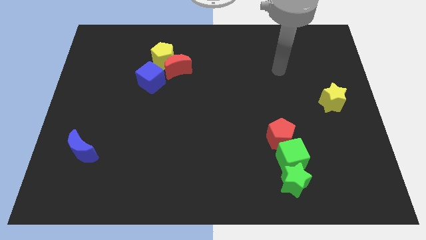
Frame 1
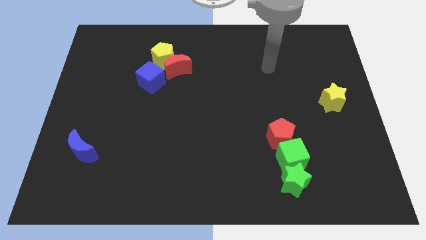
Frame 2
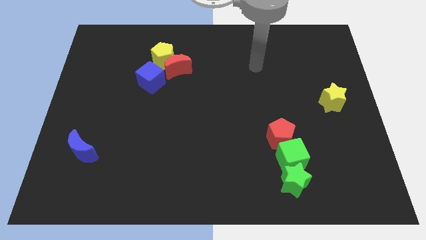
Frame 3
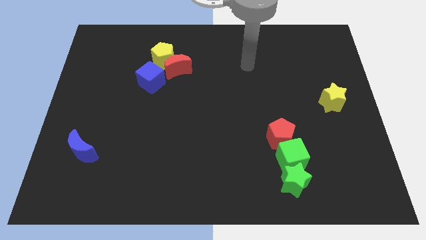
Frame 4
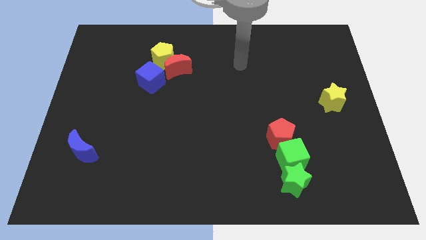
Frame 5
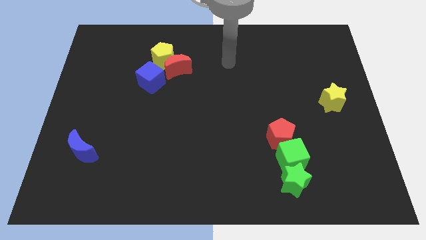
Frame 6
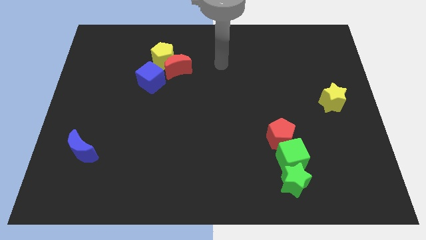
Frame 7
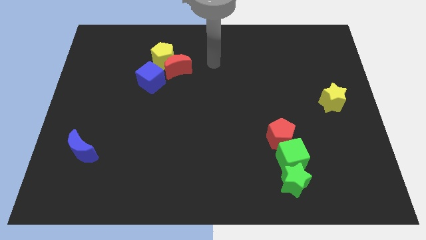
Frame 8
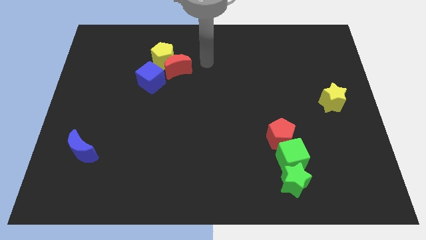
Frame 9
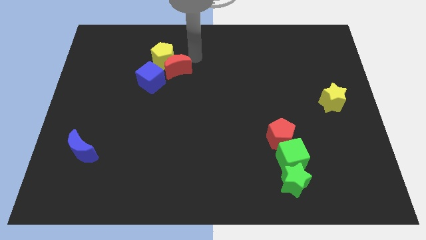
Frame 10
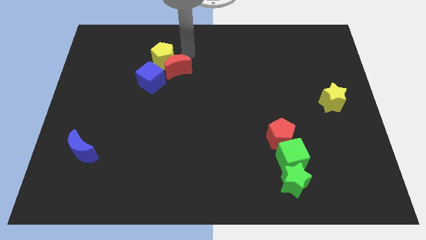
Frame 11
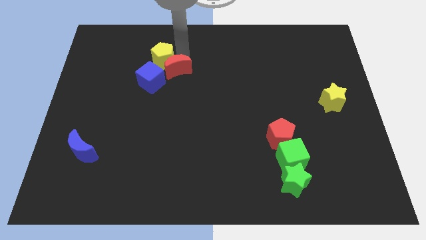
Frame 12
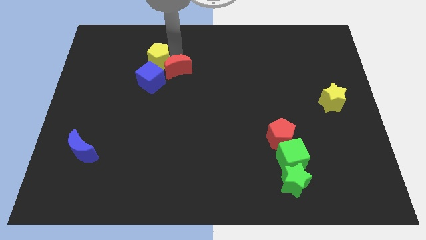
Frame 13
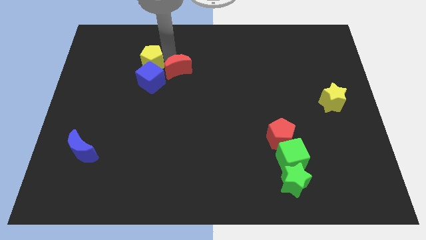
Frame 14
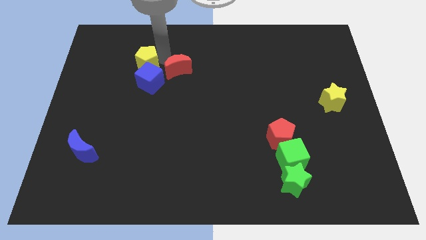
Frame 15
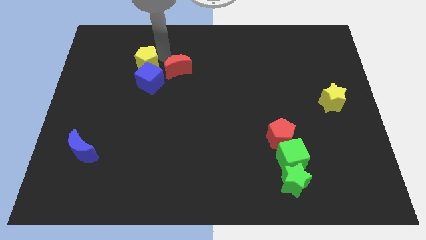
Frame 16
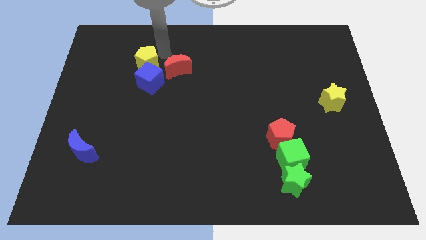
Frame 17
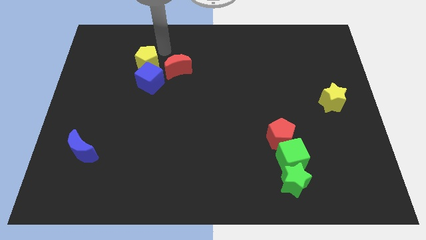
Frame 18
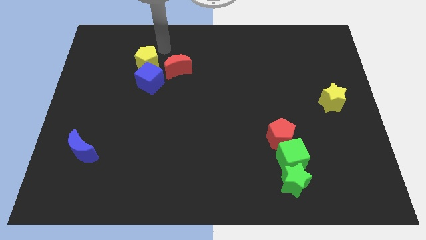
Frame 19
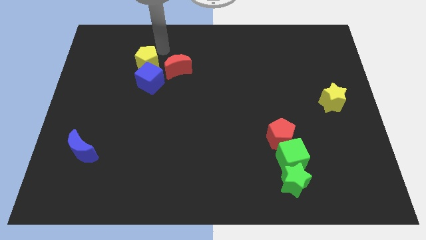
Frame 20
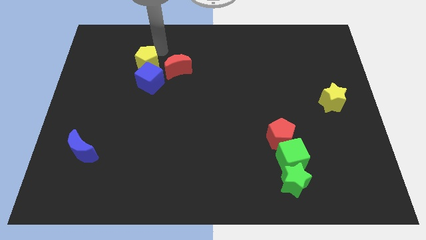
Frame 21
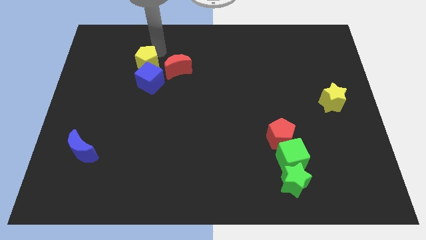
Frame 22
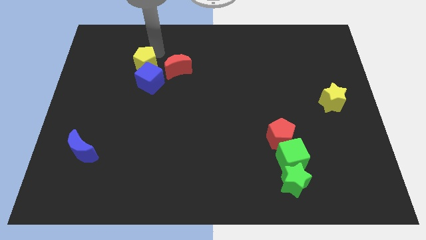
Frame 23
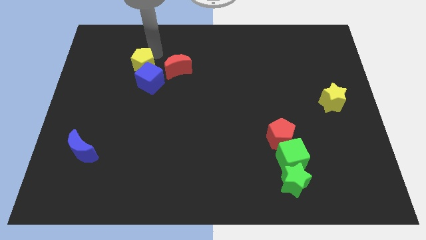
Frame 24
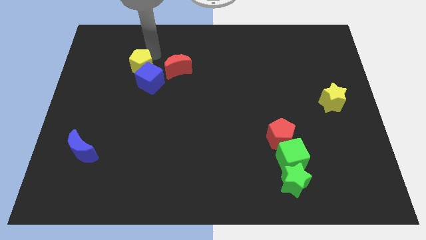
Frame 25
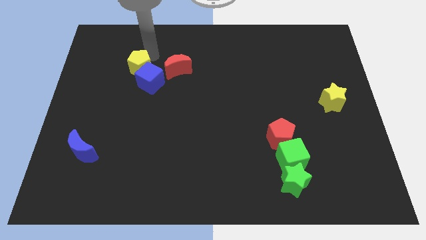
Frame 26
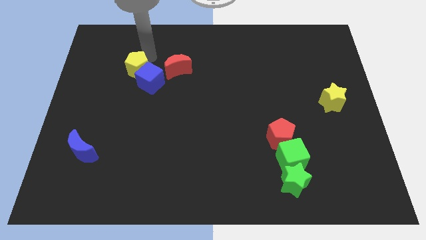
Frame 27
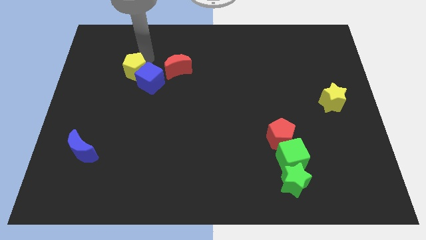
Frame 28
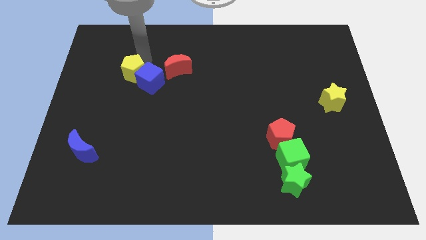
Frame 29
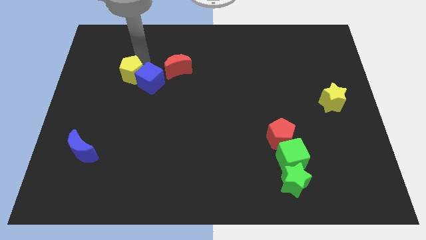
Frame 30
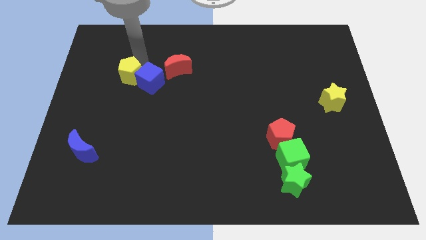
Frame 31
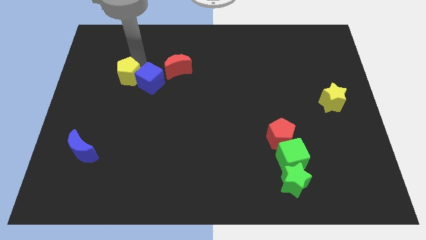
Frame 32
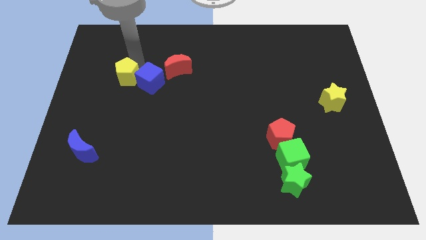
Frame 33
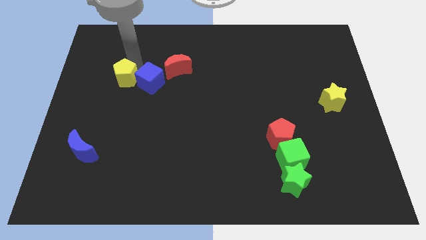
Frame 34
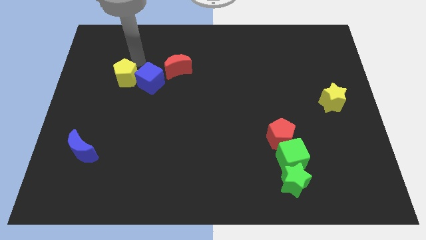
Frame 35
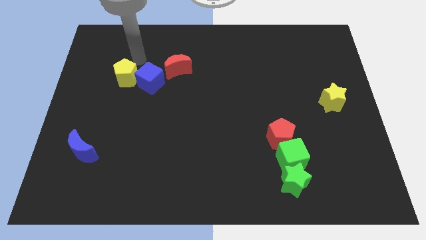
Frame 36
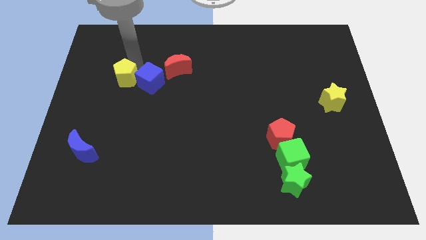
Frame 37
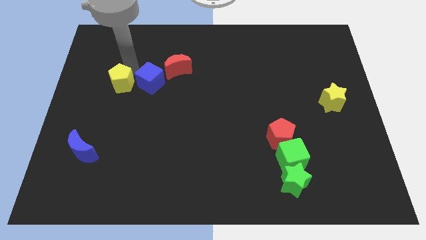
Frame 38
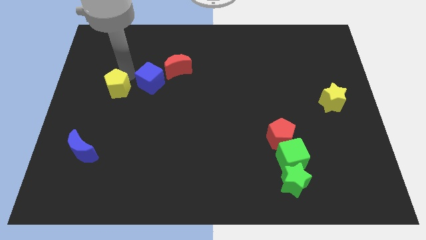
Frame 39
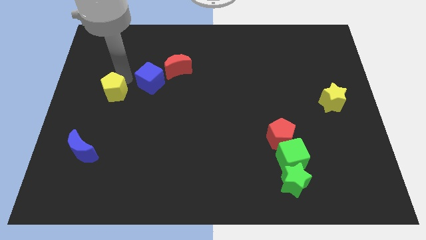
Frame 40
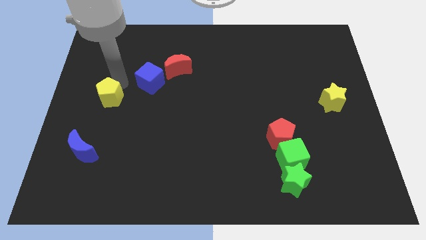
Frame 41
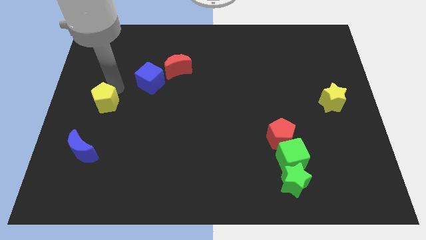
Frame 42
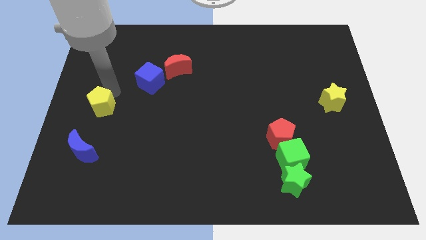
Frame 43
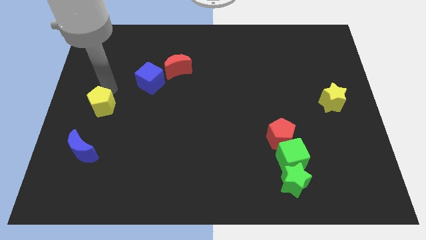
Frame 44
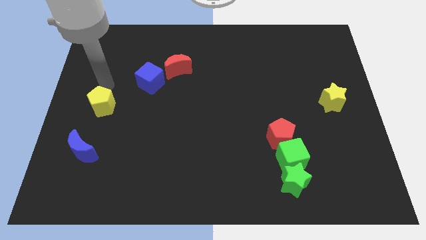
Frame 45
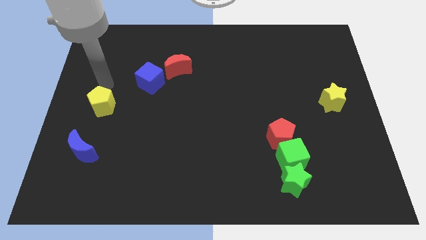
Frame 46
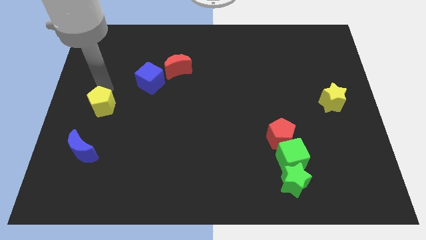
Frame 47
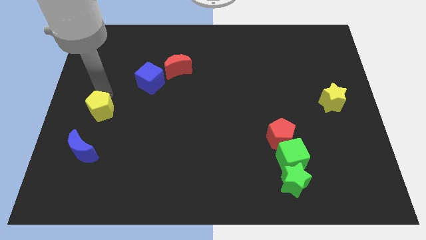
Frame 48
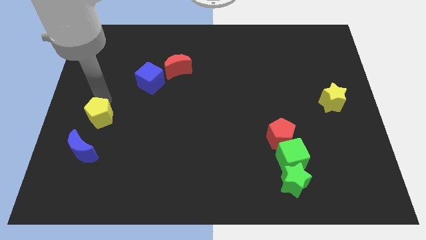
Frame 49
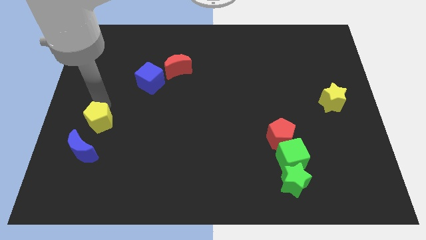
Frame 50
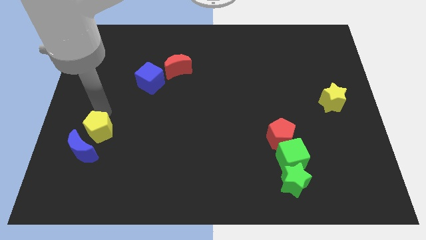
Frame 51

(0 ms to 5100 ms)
move the yellow pentagon close to the blue moon

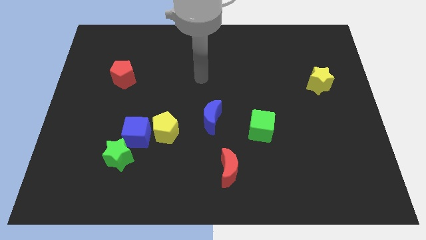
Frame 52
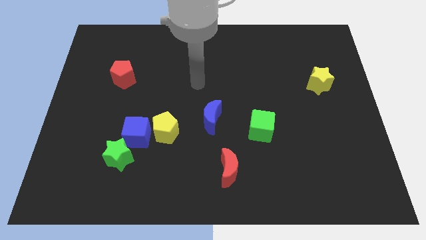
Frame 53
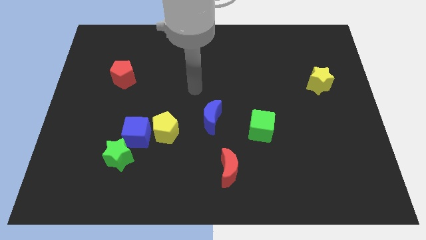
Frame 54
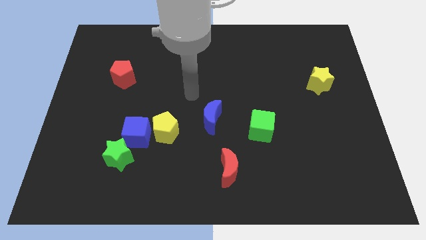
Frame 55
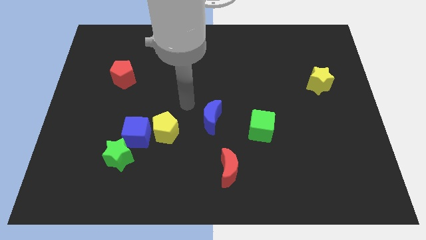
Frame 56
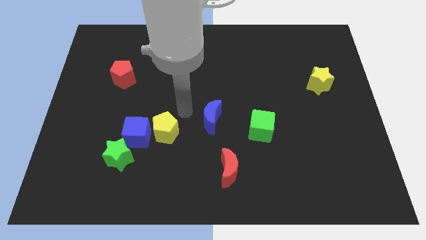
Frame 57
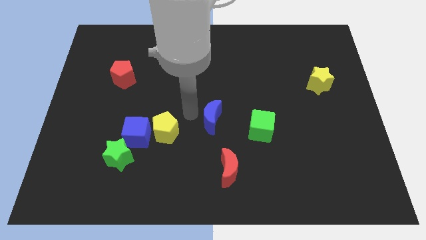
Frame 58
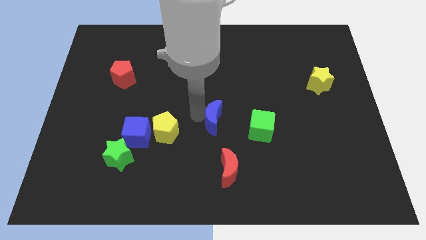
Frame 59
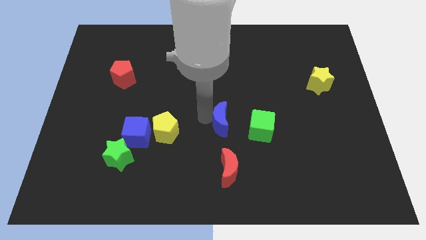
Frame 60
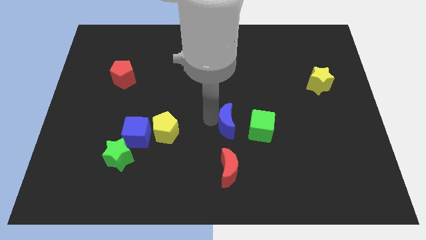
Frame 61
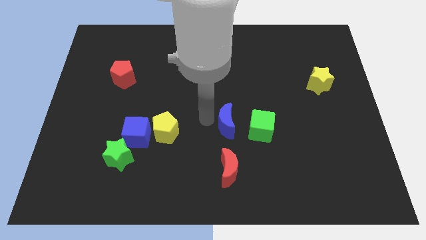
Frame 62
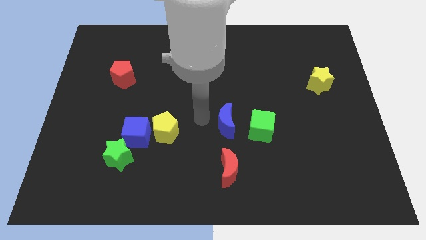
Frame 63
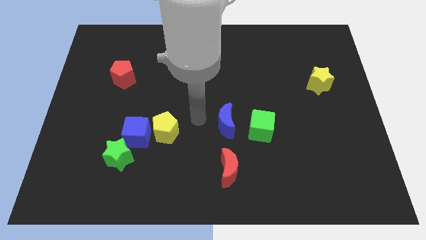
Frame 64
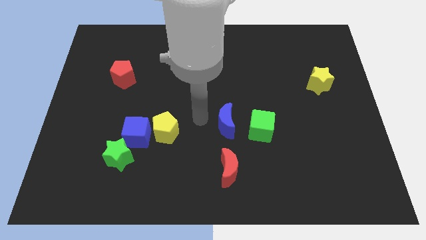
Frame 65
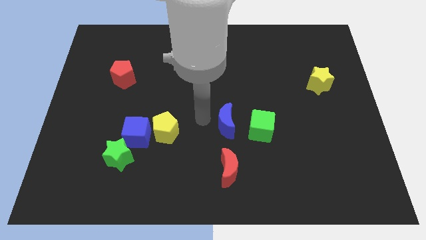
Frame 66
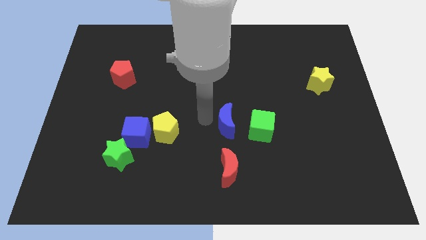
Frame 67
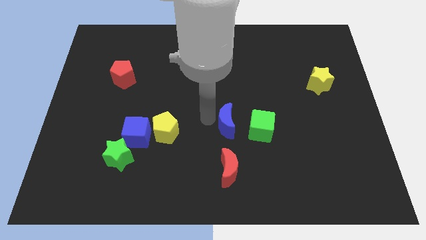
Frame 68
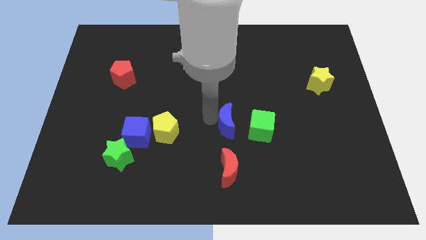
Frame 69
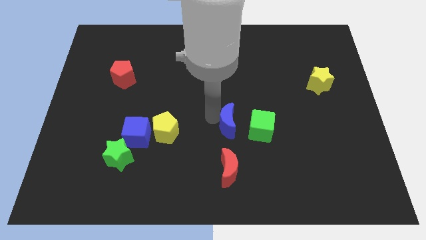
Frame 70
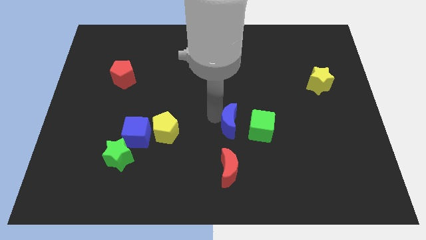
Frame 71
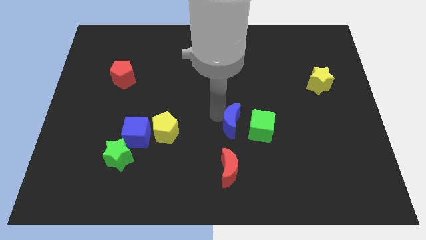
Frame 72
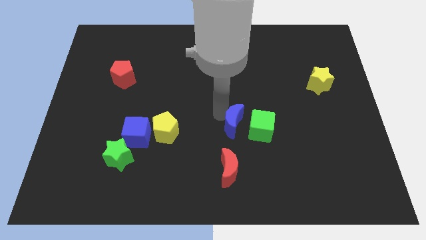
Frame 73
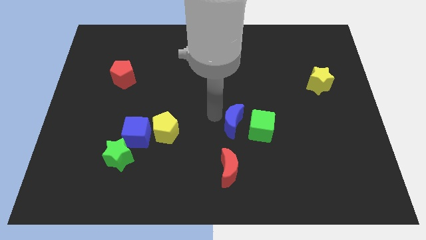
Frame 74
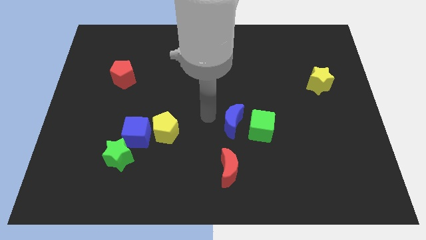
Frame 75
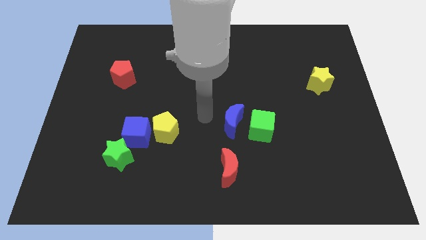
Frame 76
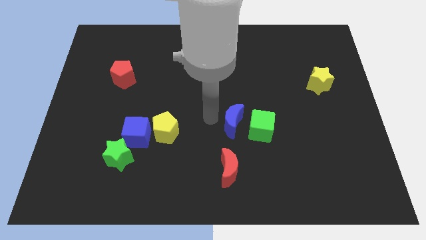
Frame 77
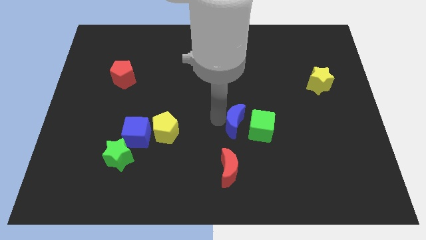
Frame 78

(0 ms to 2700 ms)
move the blue moon to the green cube
